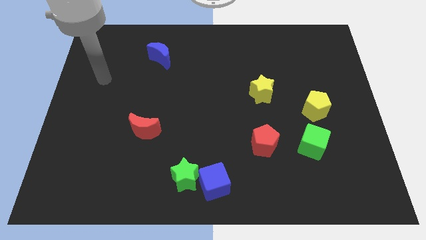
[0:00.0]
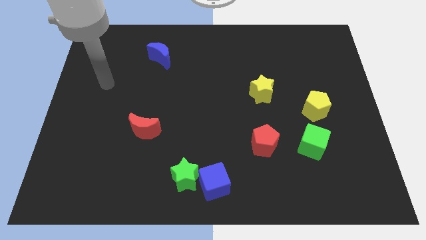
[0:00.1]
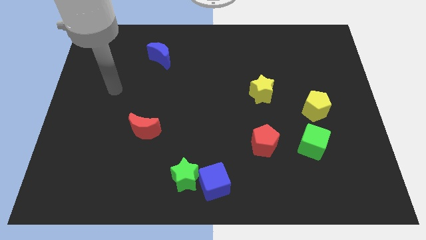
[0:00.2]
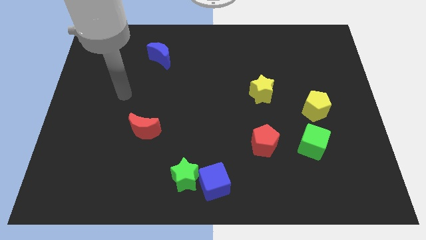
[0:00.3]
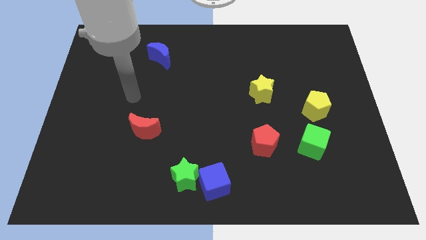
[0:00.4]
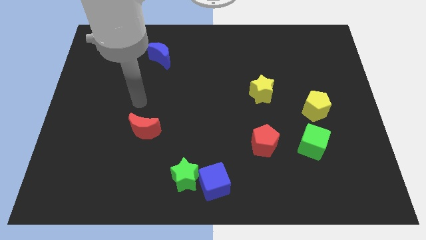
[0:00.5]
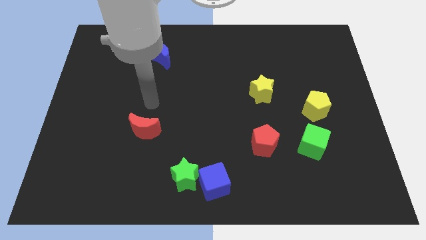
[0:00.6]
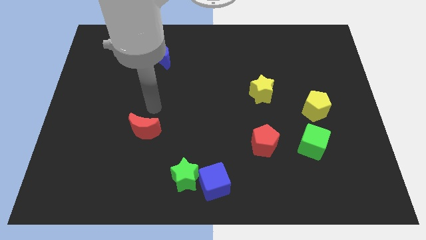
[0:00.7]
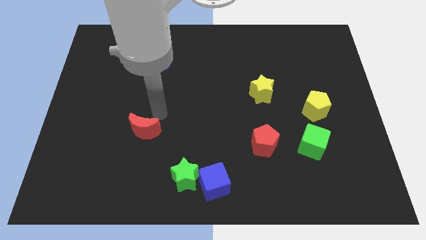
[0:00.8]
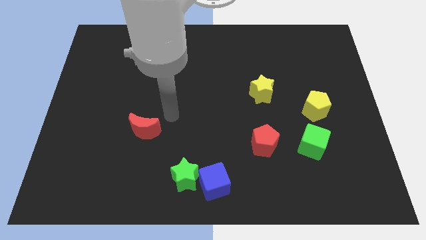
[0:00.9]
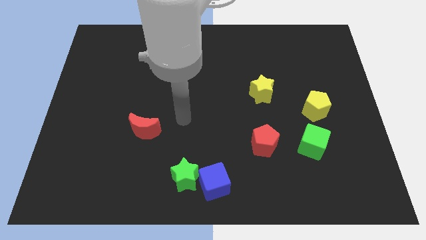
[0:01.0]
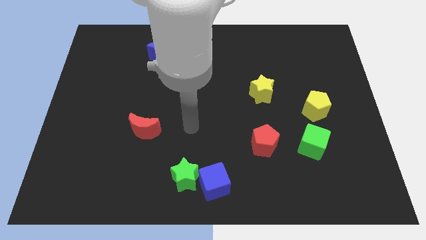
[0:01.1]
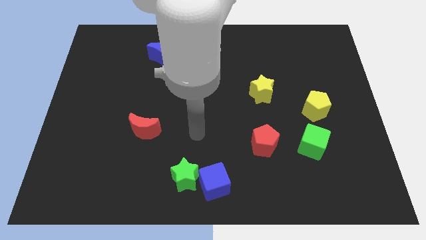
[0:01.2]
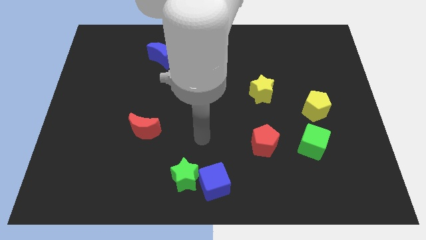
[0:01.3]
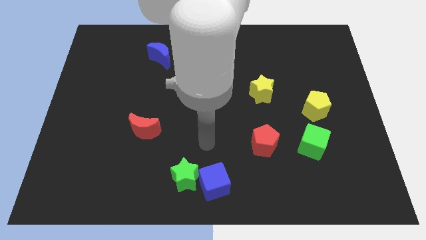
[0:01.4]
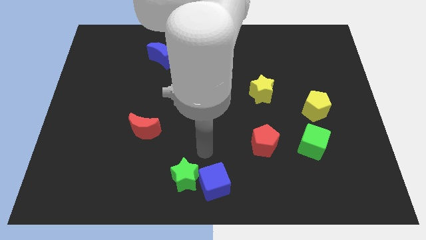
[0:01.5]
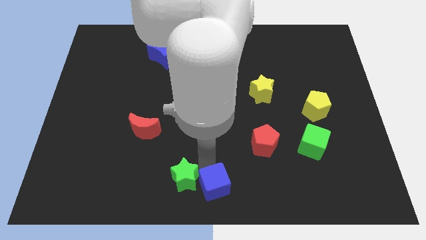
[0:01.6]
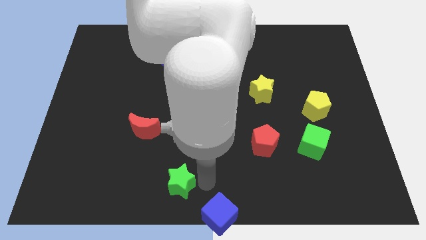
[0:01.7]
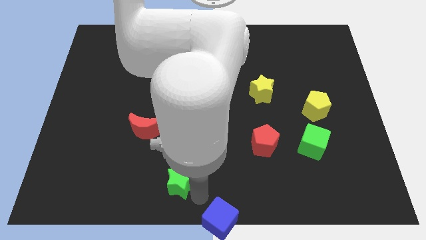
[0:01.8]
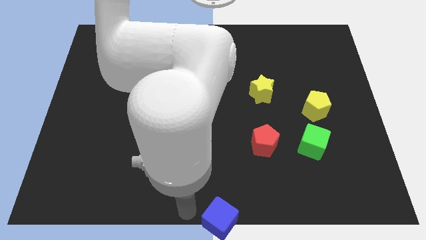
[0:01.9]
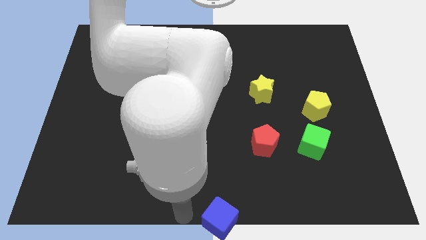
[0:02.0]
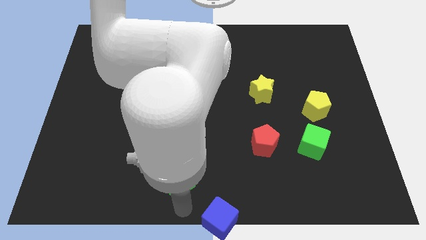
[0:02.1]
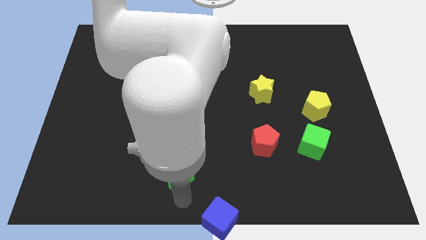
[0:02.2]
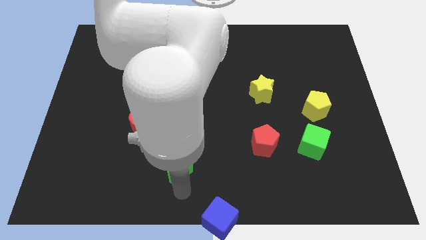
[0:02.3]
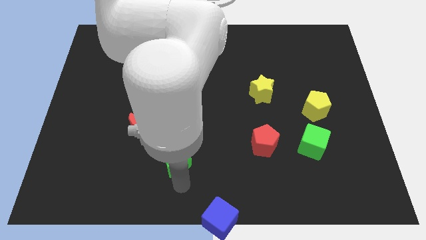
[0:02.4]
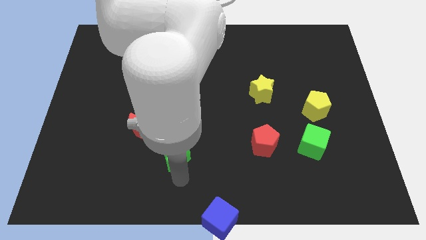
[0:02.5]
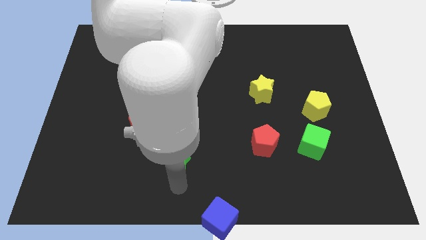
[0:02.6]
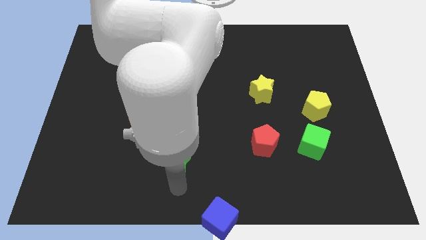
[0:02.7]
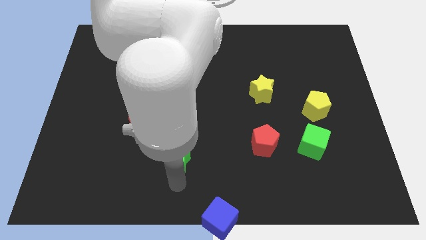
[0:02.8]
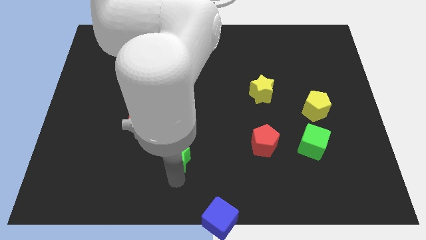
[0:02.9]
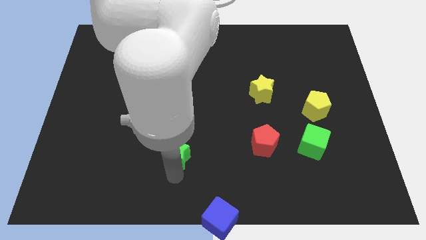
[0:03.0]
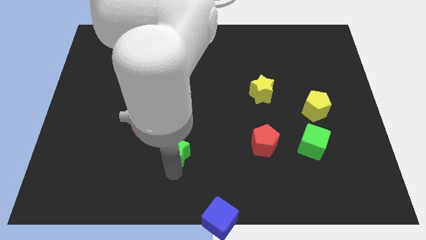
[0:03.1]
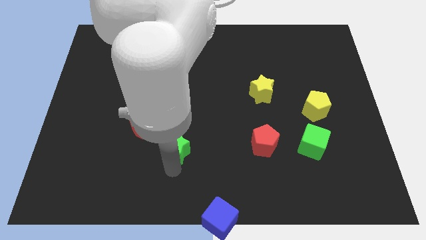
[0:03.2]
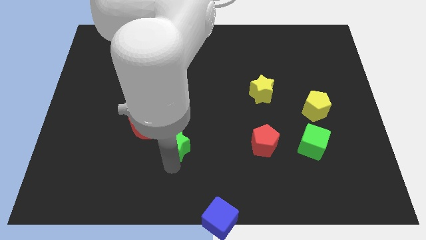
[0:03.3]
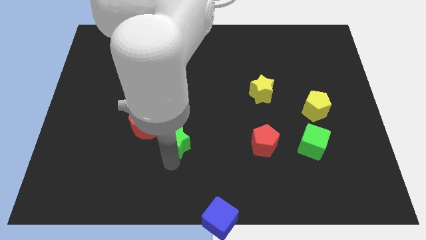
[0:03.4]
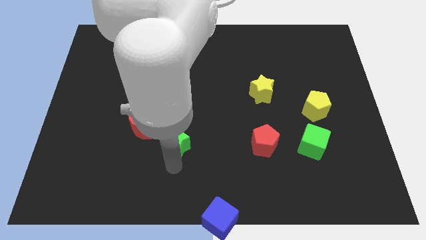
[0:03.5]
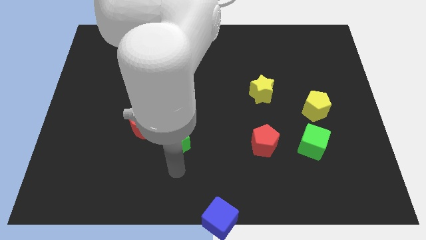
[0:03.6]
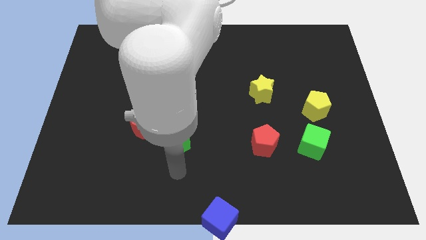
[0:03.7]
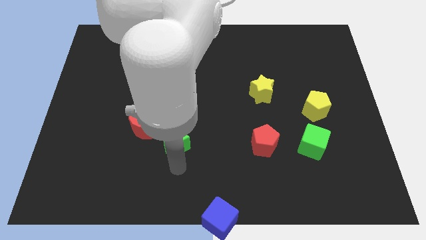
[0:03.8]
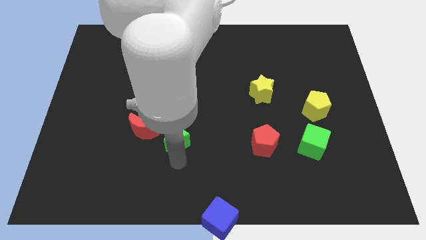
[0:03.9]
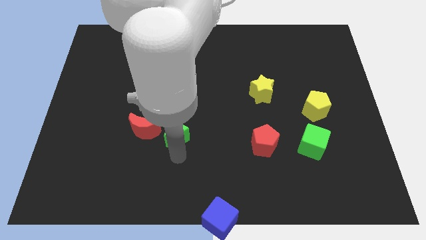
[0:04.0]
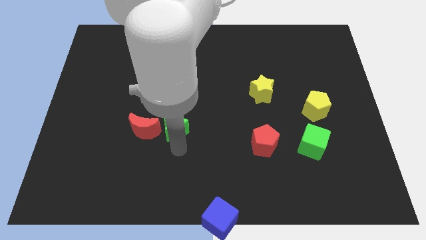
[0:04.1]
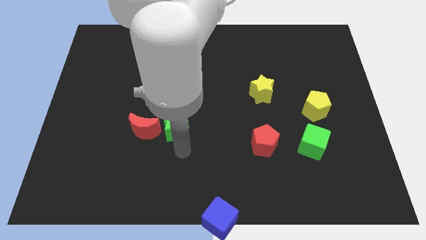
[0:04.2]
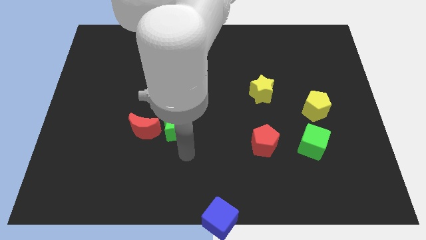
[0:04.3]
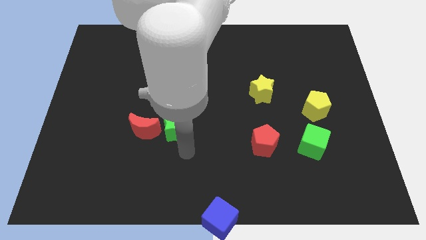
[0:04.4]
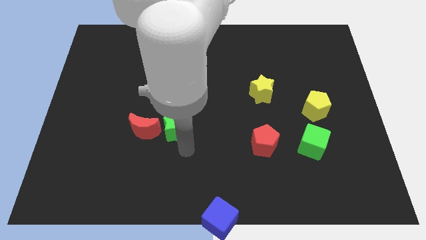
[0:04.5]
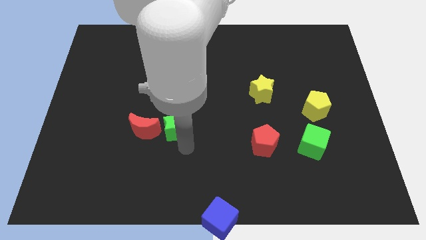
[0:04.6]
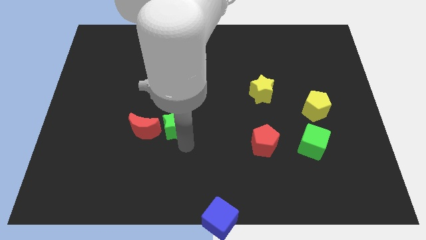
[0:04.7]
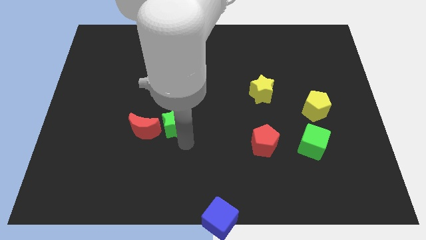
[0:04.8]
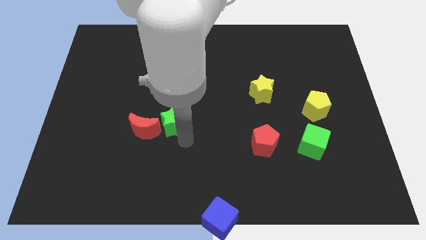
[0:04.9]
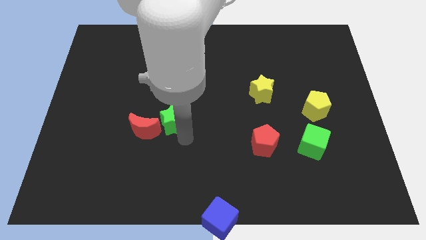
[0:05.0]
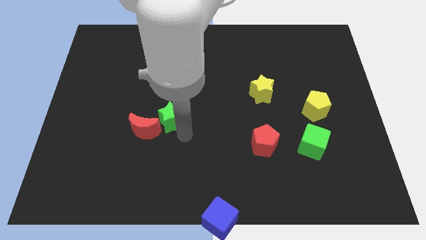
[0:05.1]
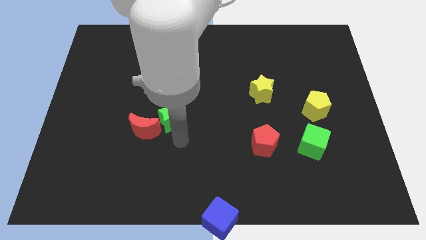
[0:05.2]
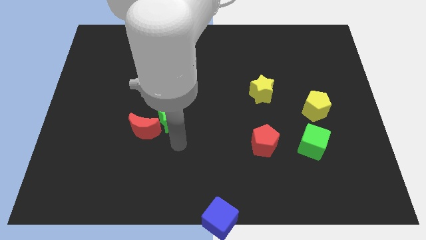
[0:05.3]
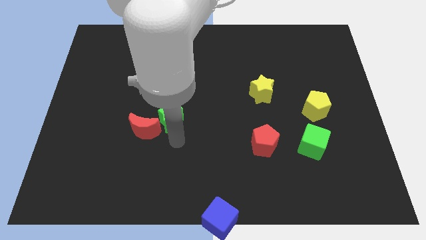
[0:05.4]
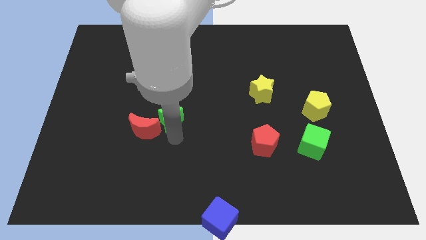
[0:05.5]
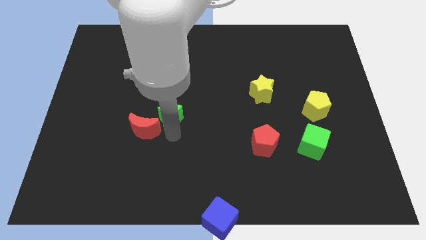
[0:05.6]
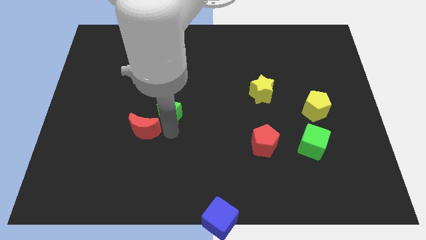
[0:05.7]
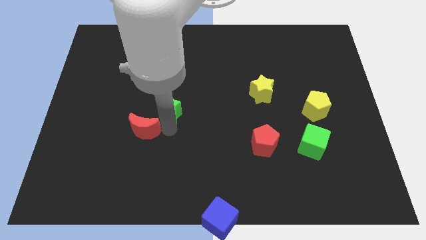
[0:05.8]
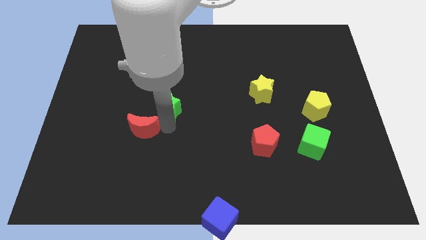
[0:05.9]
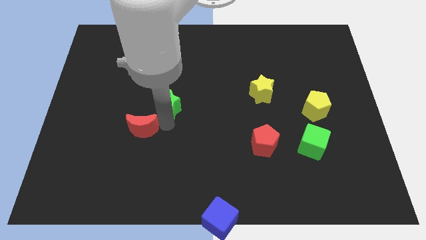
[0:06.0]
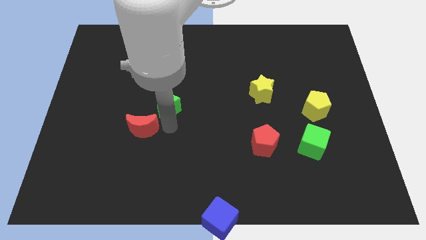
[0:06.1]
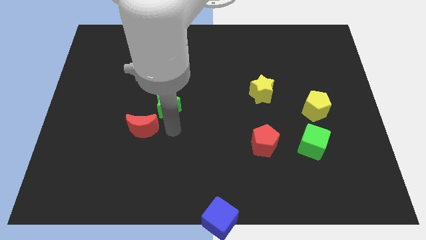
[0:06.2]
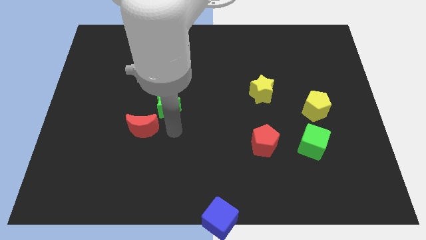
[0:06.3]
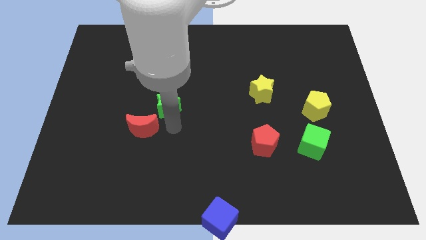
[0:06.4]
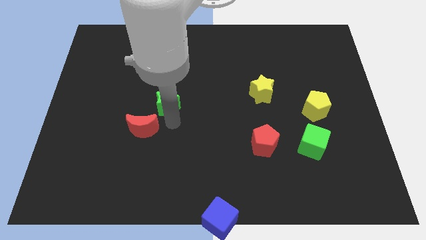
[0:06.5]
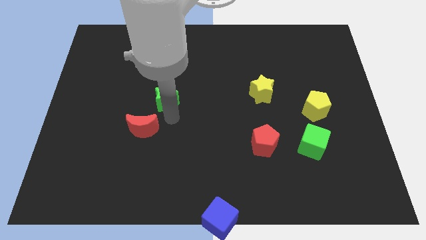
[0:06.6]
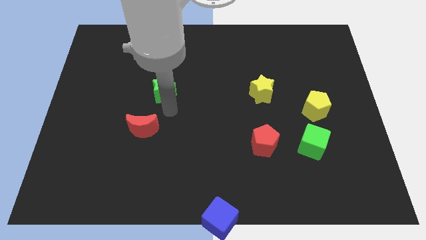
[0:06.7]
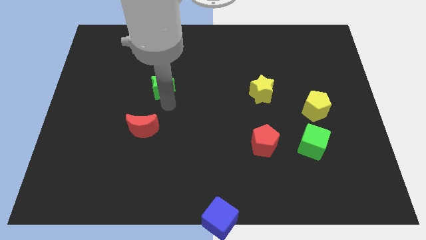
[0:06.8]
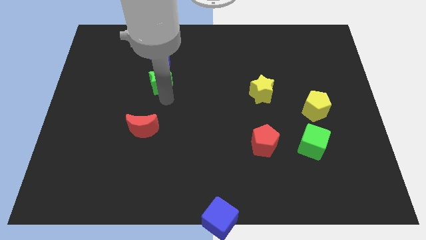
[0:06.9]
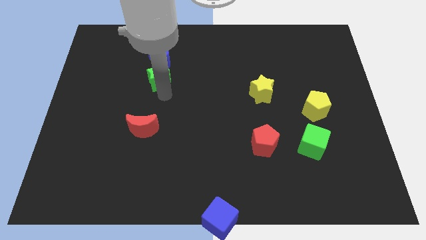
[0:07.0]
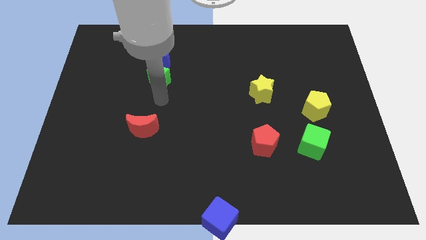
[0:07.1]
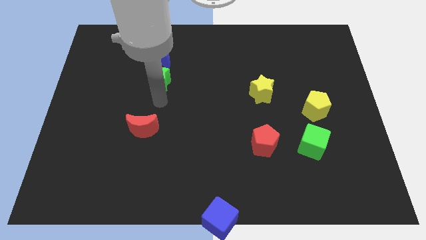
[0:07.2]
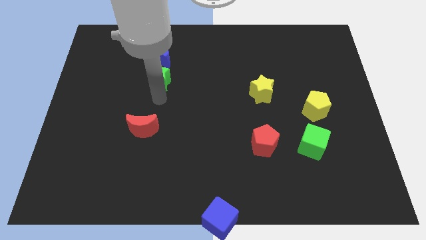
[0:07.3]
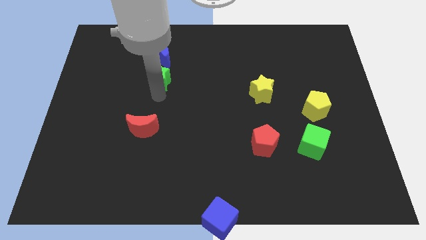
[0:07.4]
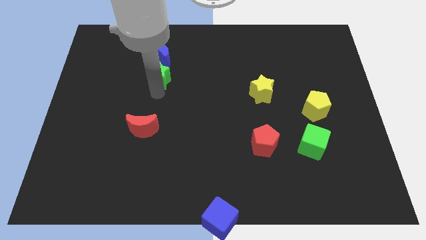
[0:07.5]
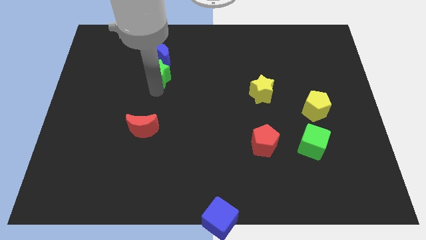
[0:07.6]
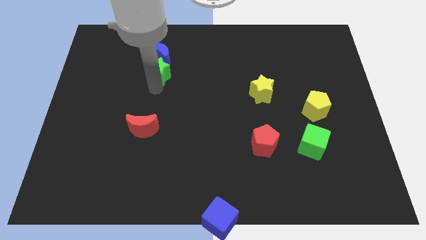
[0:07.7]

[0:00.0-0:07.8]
slide the green star next to the blue moon
